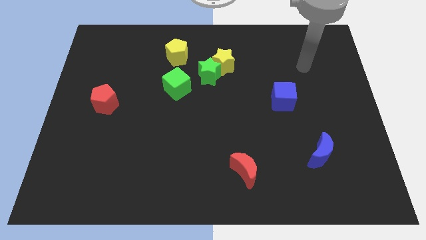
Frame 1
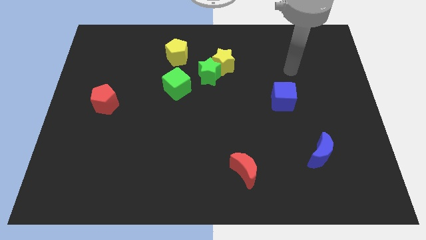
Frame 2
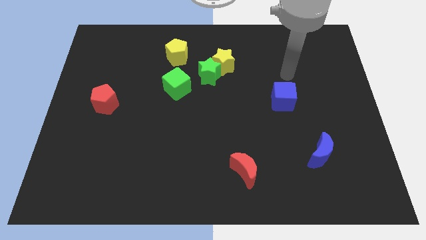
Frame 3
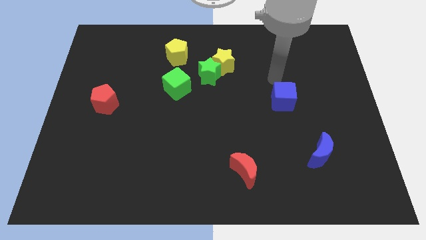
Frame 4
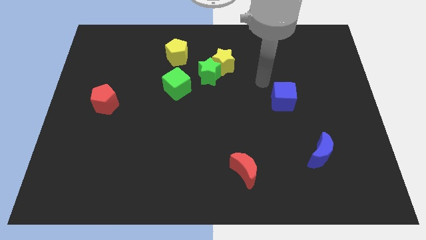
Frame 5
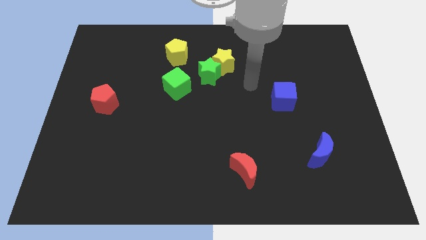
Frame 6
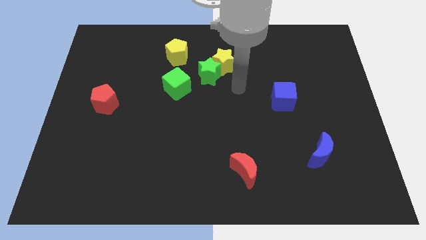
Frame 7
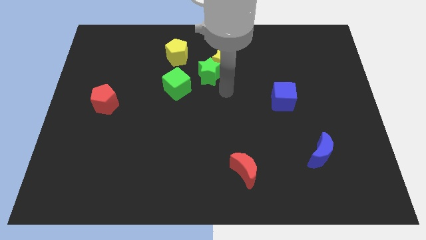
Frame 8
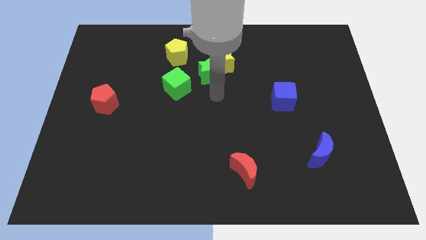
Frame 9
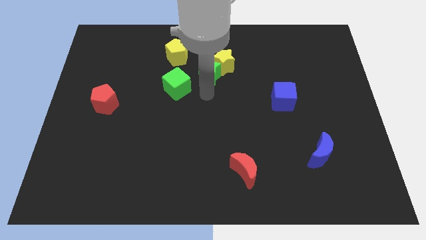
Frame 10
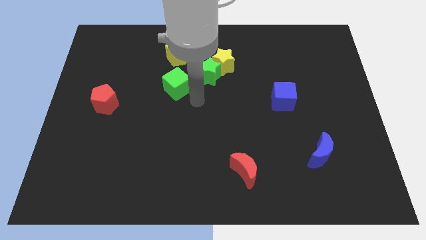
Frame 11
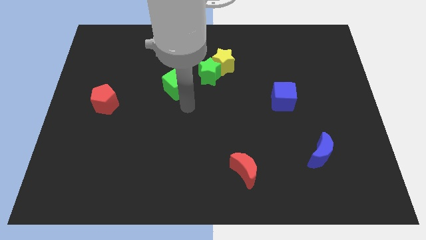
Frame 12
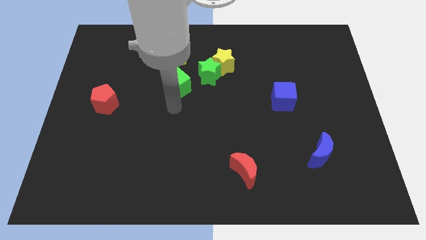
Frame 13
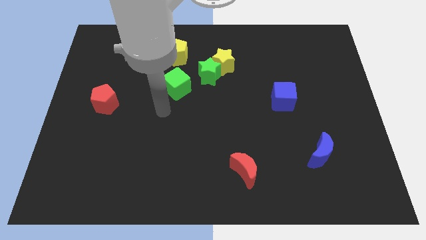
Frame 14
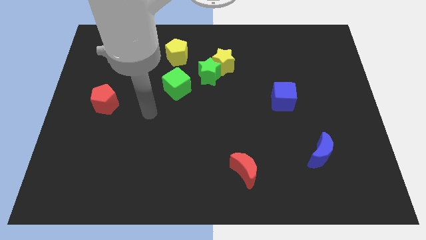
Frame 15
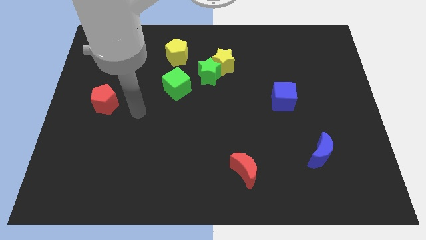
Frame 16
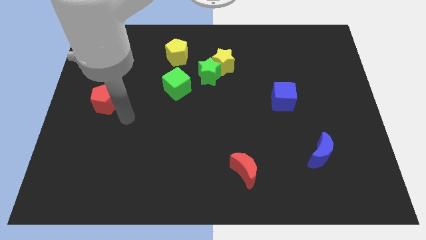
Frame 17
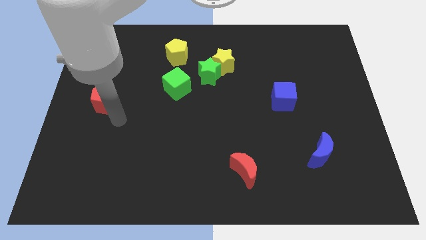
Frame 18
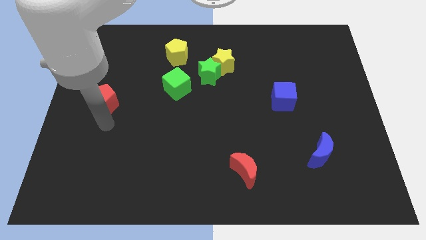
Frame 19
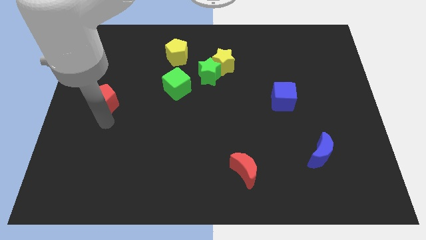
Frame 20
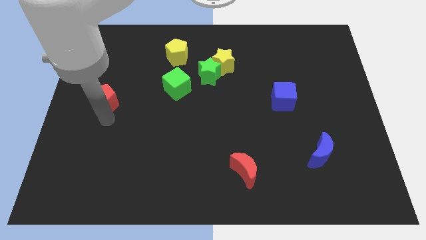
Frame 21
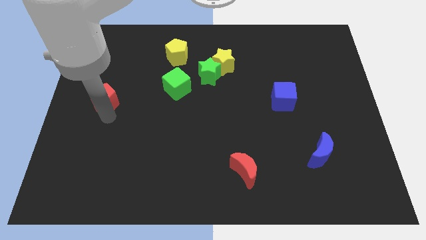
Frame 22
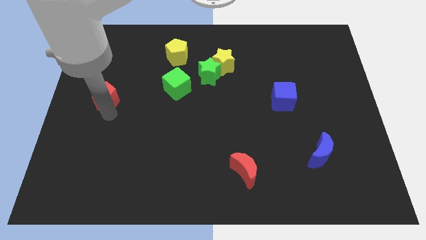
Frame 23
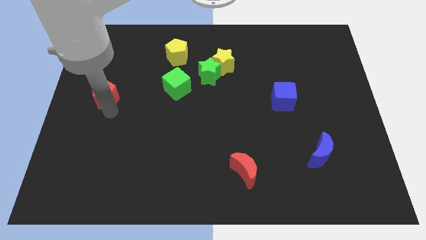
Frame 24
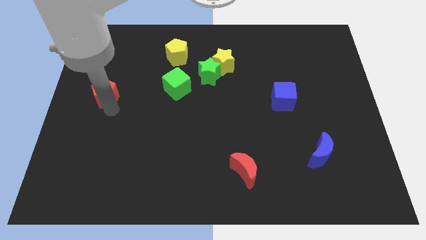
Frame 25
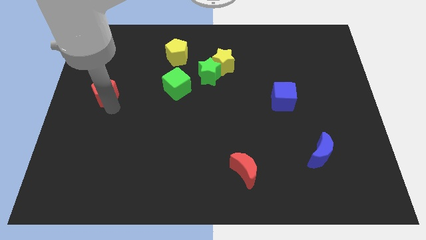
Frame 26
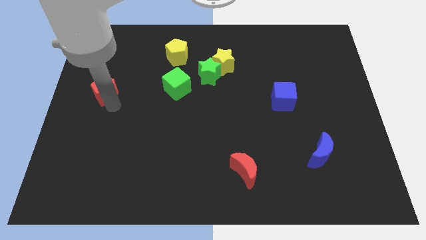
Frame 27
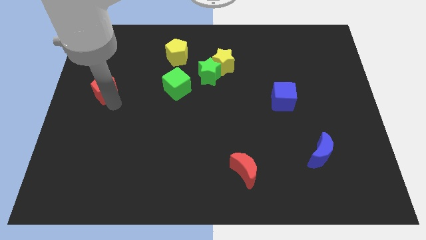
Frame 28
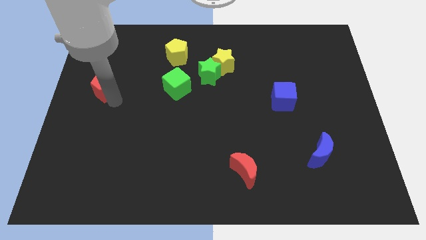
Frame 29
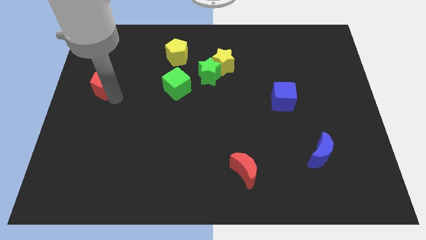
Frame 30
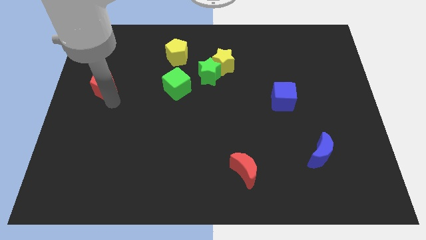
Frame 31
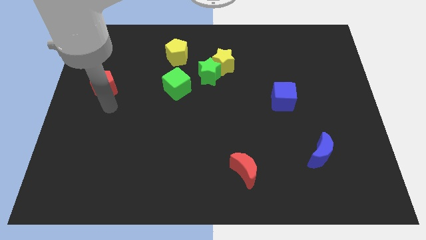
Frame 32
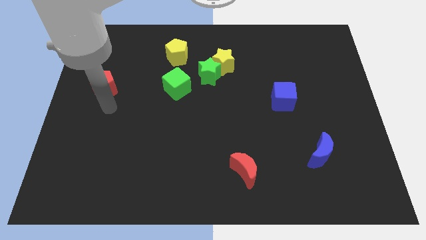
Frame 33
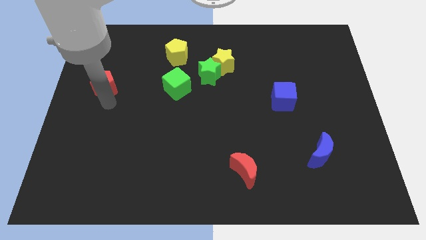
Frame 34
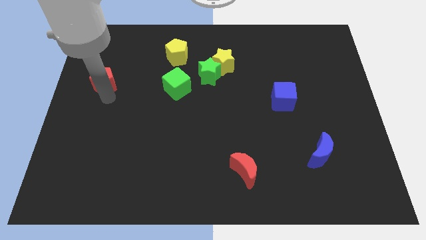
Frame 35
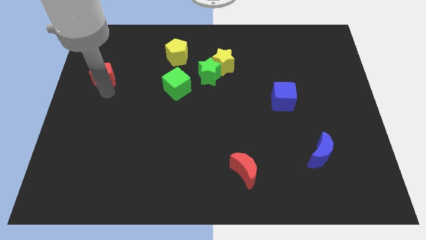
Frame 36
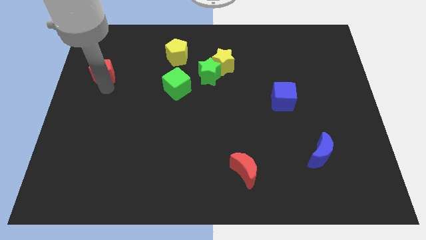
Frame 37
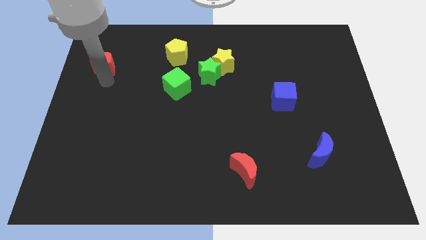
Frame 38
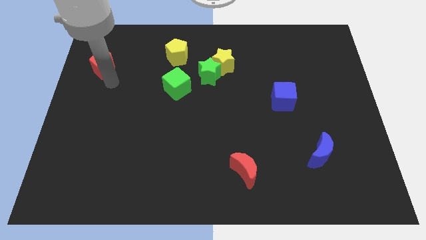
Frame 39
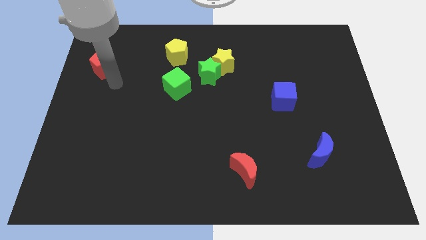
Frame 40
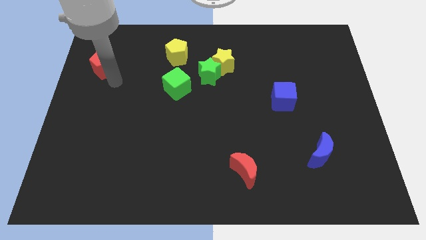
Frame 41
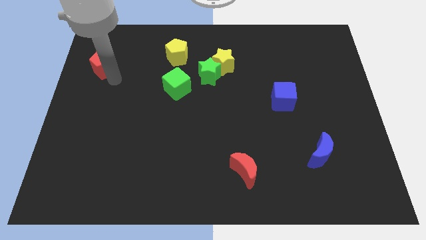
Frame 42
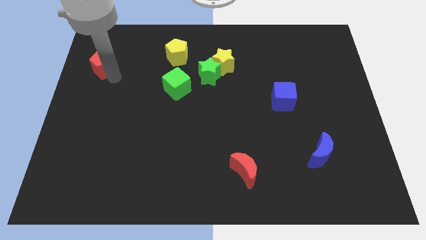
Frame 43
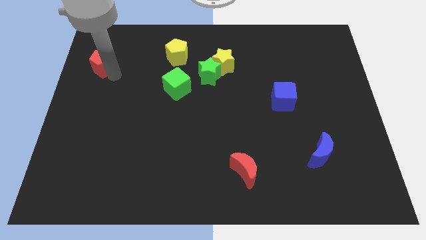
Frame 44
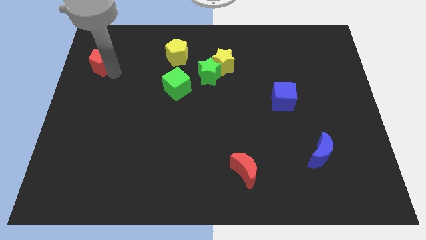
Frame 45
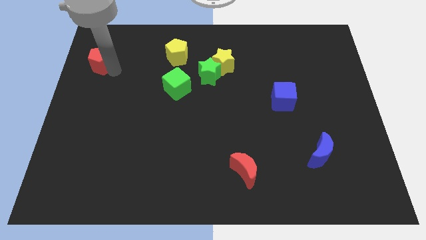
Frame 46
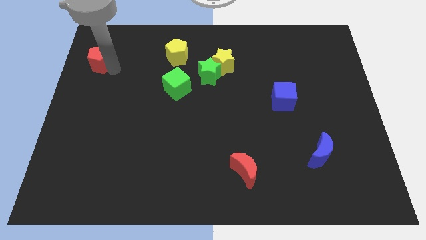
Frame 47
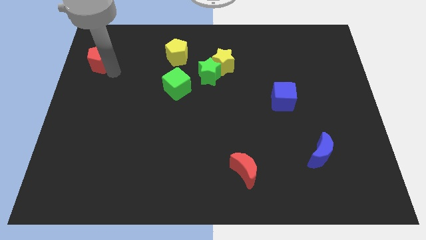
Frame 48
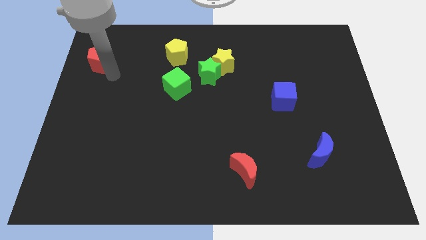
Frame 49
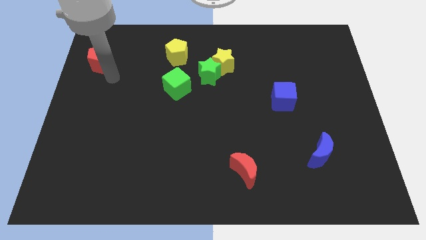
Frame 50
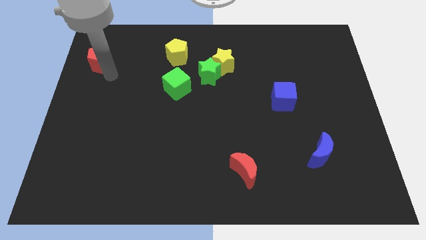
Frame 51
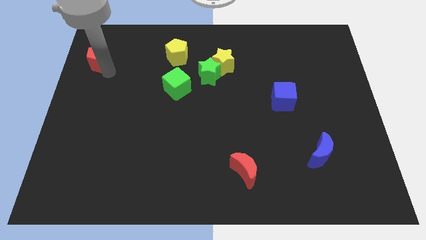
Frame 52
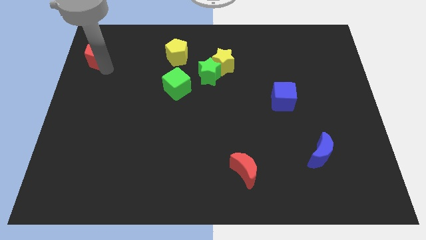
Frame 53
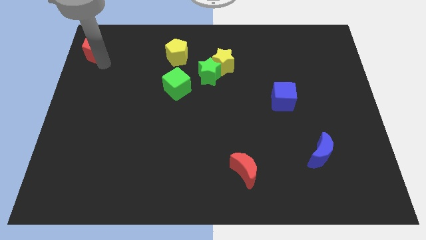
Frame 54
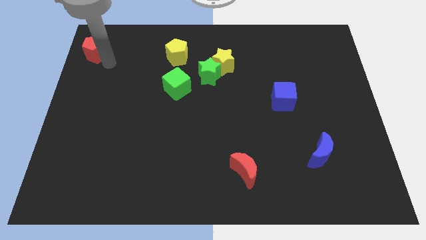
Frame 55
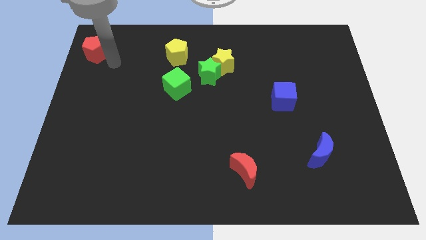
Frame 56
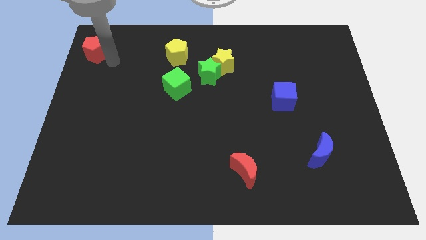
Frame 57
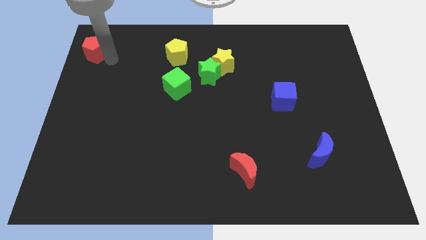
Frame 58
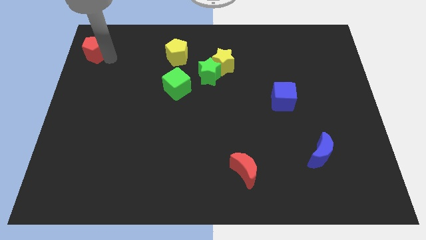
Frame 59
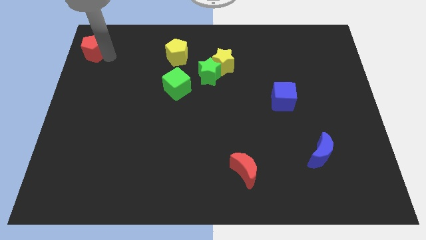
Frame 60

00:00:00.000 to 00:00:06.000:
move the red pentagon to the top left corner

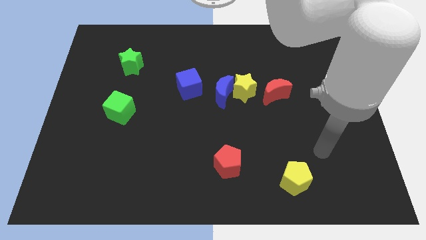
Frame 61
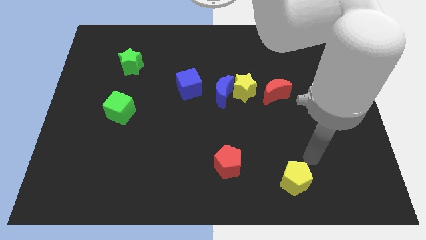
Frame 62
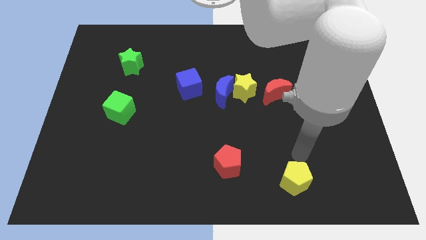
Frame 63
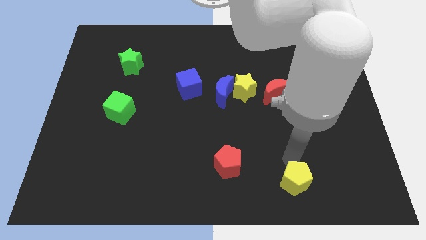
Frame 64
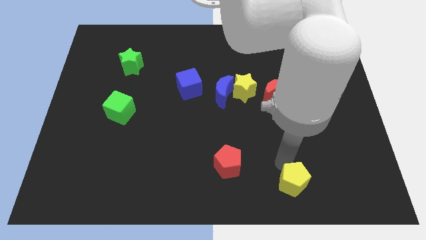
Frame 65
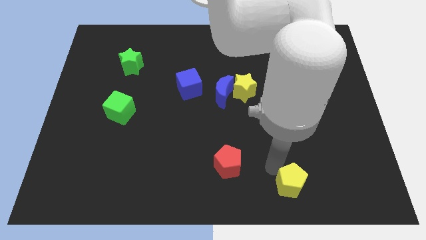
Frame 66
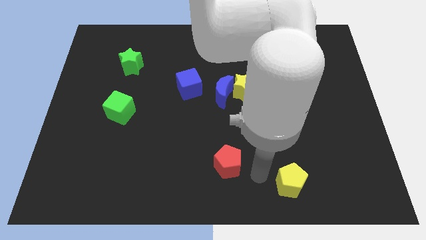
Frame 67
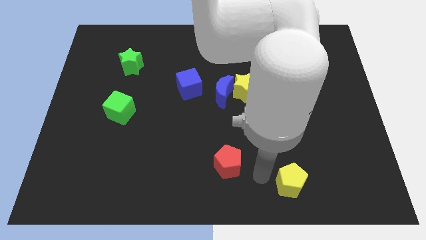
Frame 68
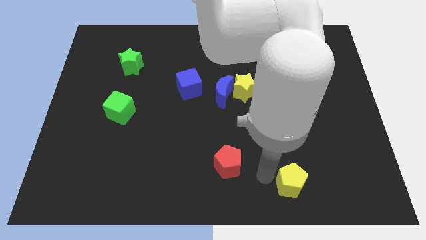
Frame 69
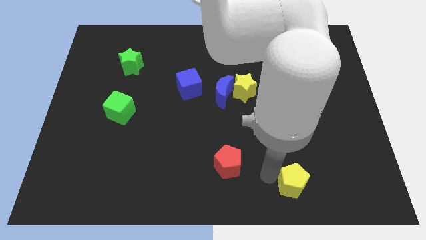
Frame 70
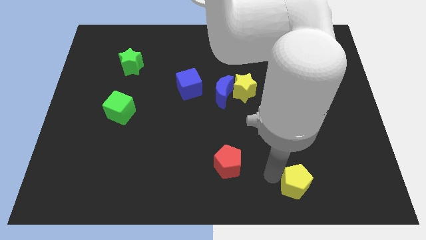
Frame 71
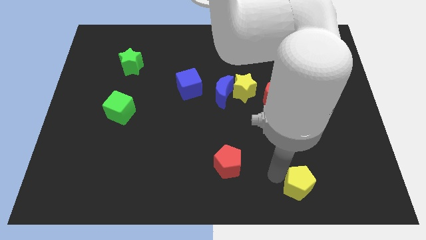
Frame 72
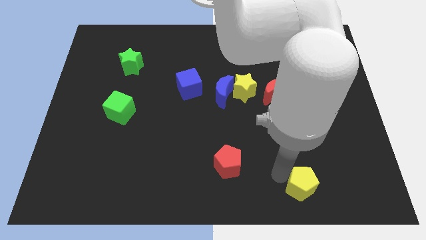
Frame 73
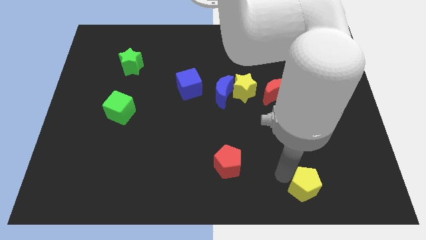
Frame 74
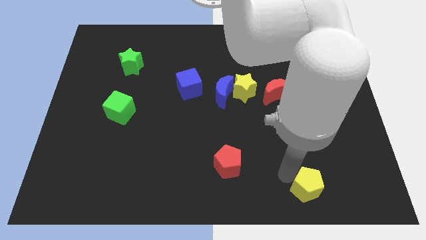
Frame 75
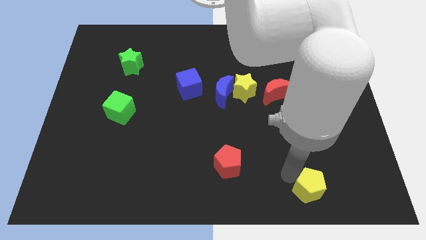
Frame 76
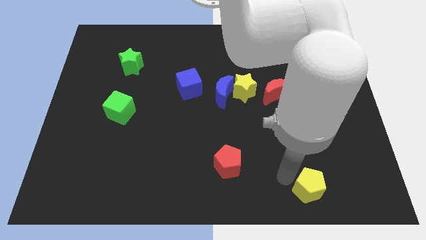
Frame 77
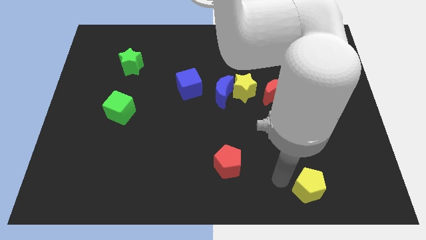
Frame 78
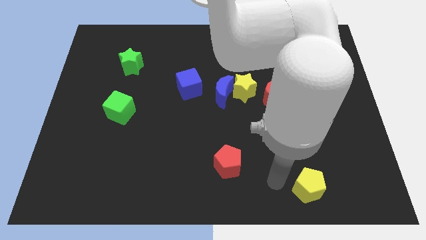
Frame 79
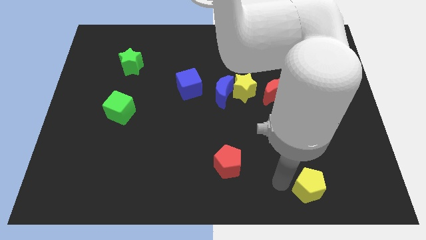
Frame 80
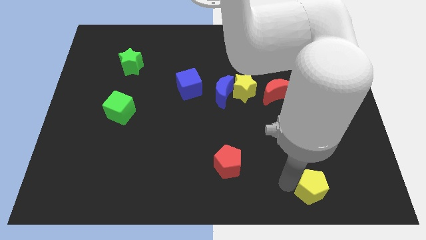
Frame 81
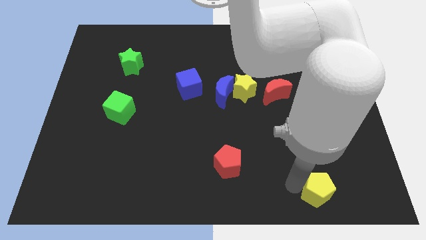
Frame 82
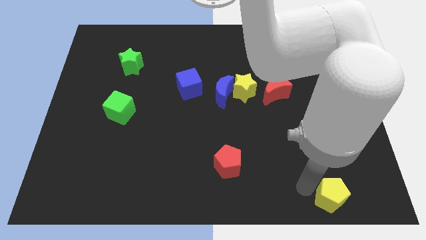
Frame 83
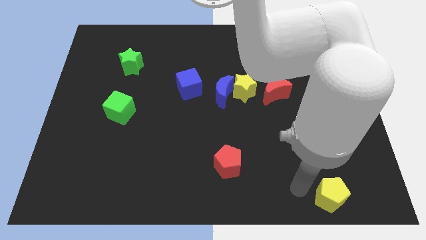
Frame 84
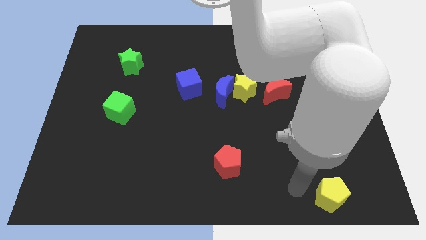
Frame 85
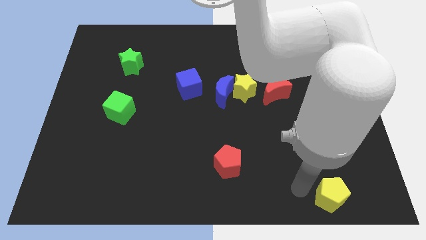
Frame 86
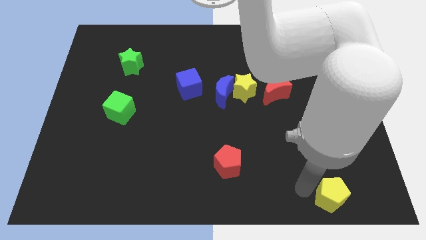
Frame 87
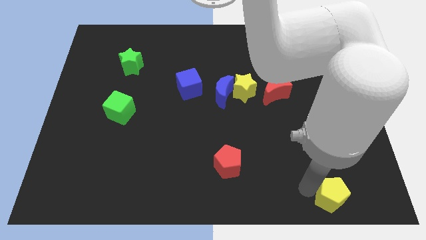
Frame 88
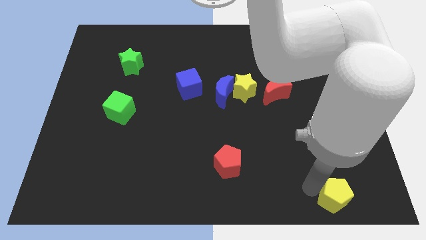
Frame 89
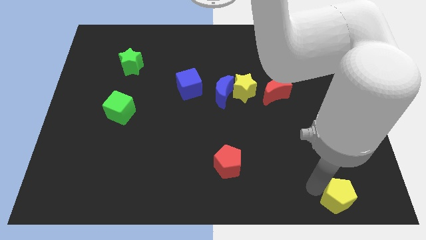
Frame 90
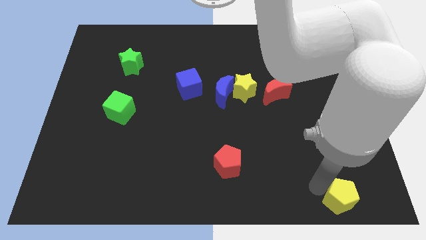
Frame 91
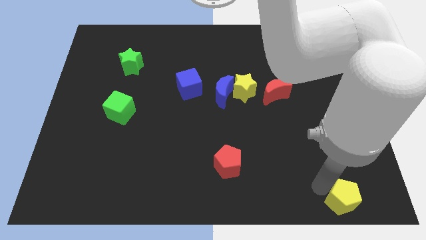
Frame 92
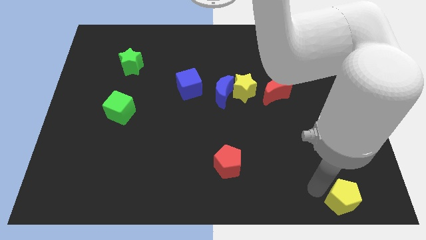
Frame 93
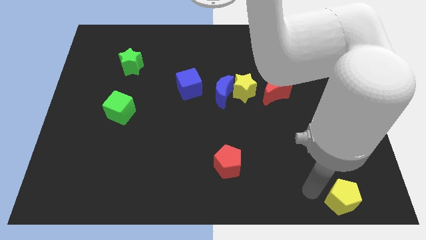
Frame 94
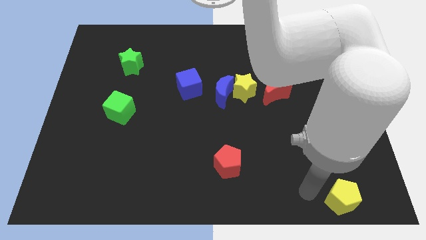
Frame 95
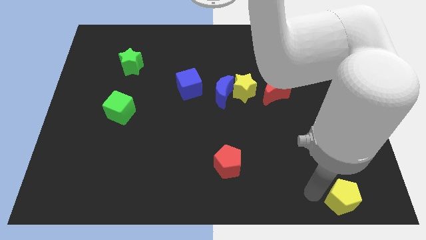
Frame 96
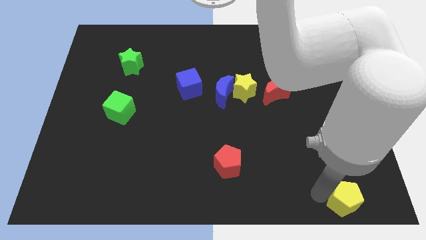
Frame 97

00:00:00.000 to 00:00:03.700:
slide the yellow pentagon to the bottom right
